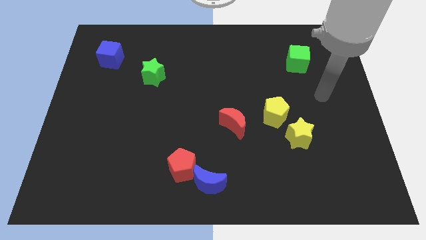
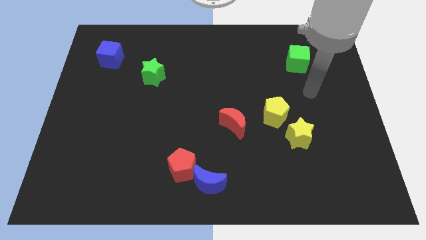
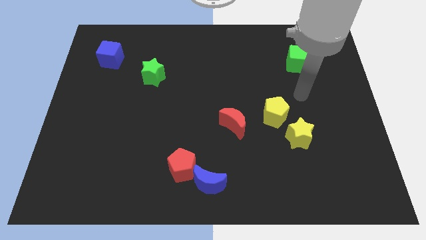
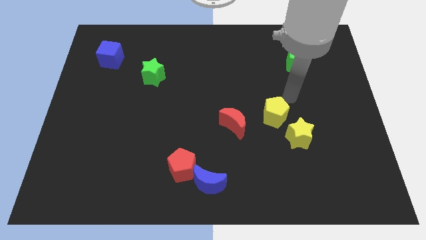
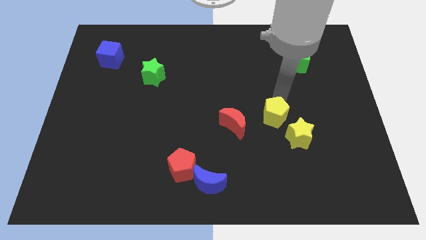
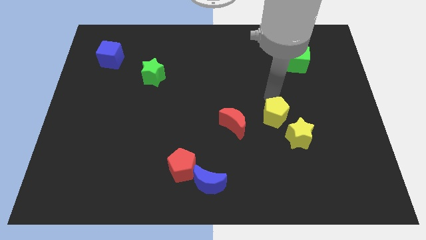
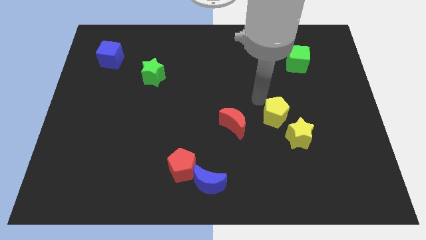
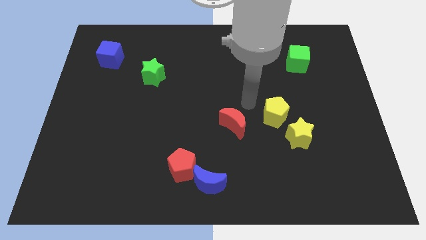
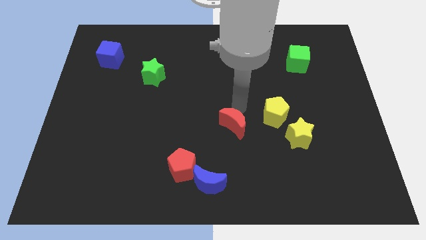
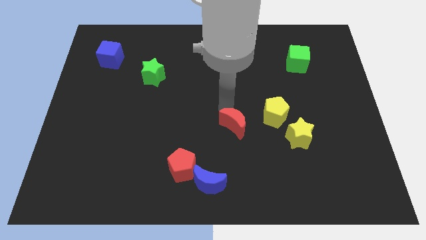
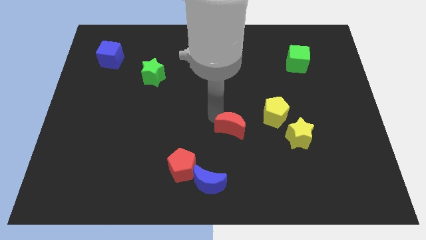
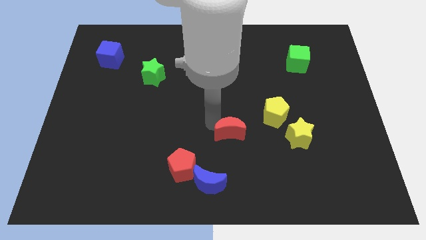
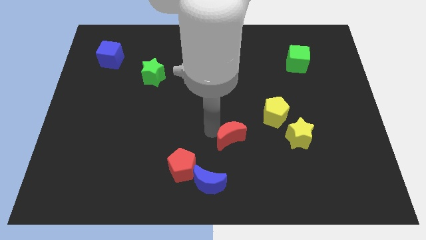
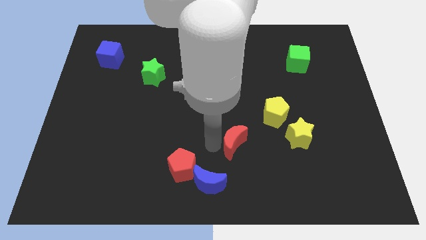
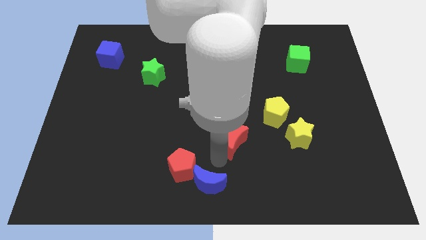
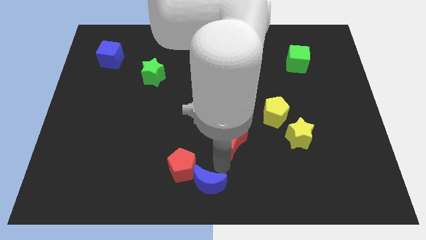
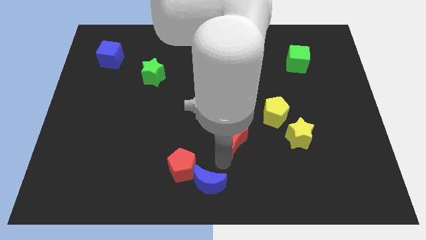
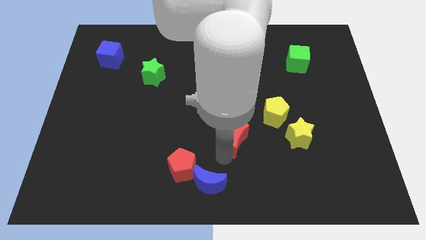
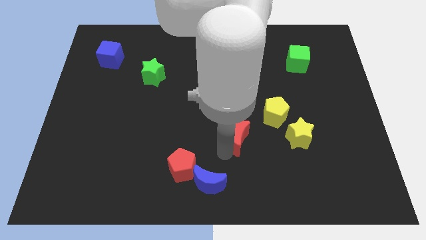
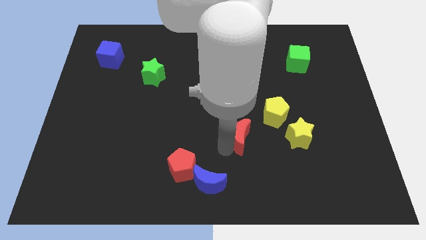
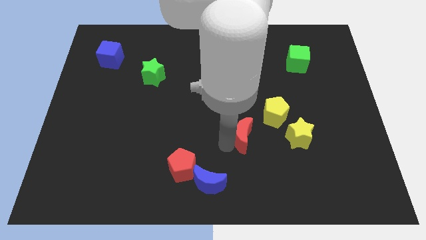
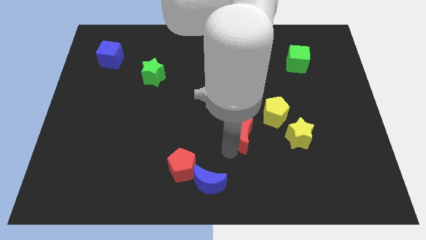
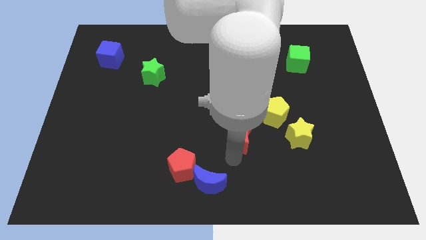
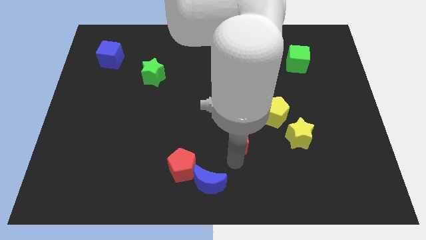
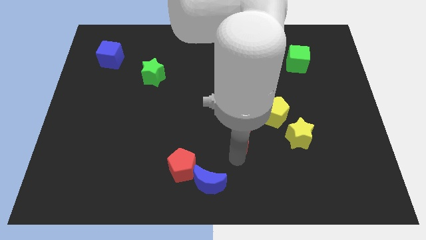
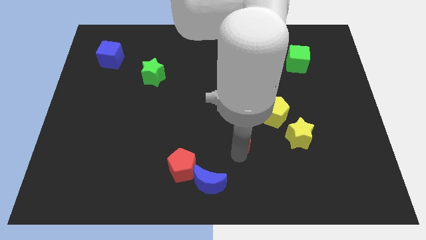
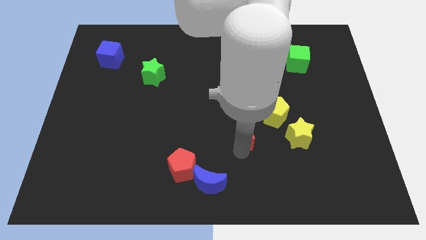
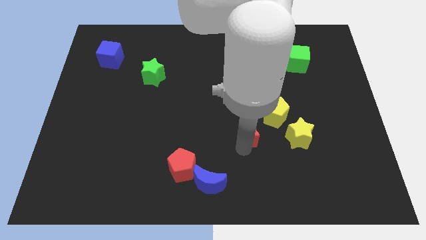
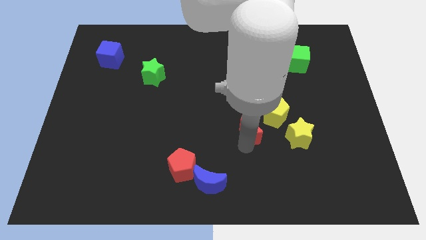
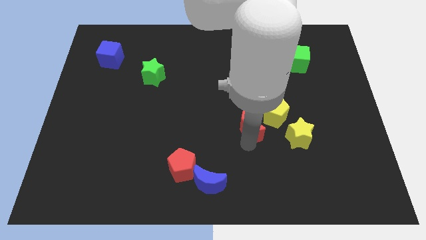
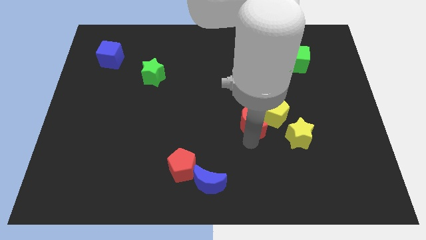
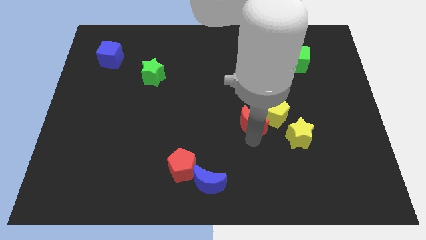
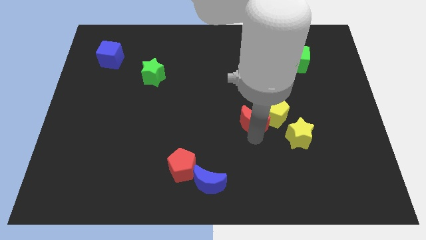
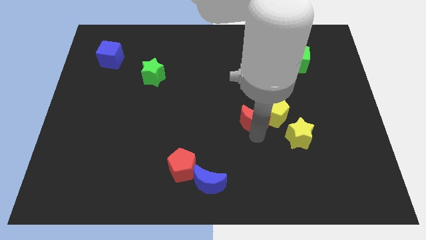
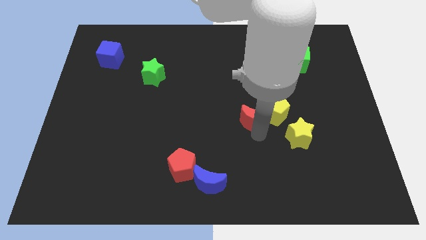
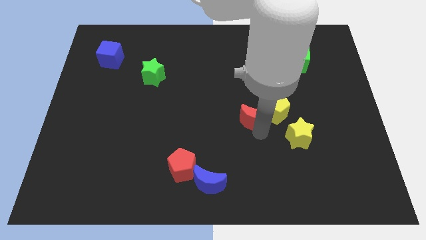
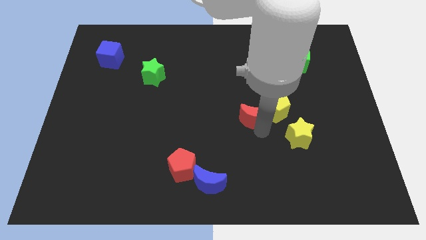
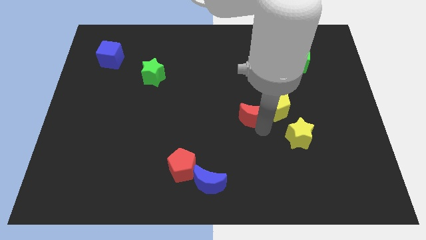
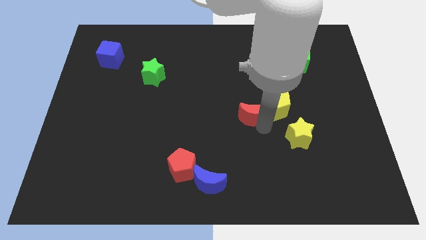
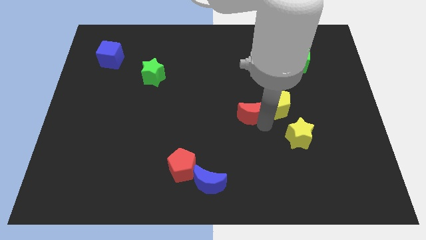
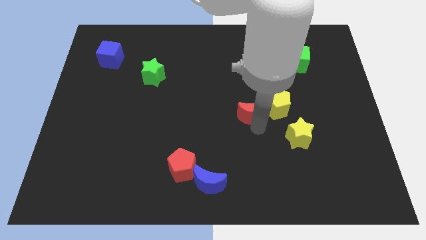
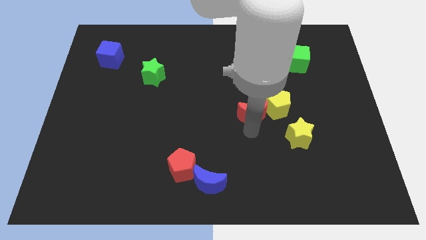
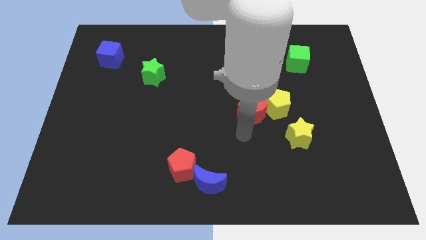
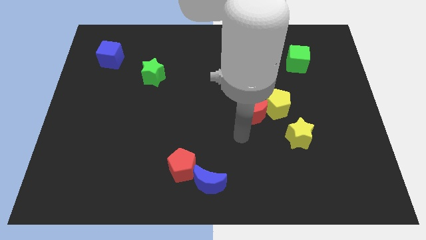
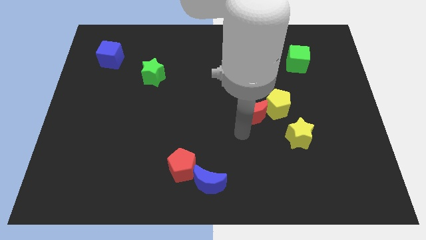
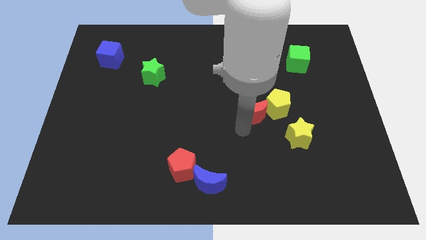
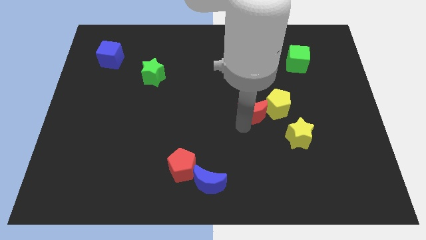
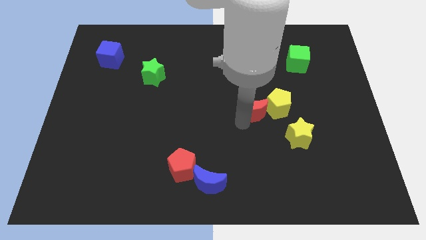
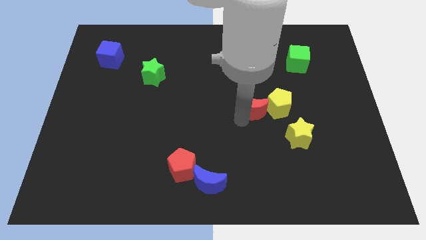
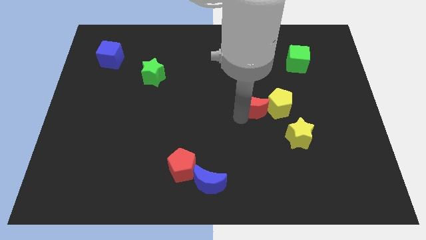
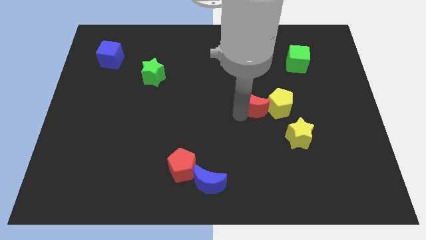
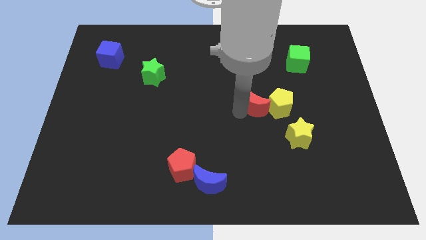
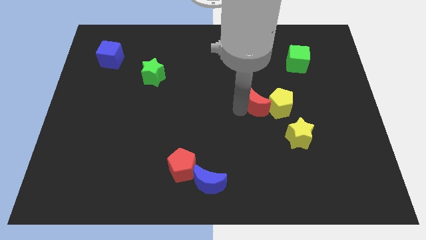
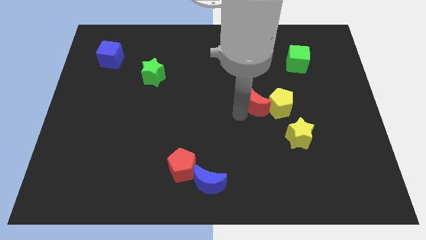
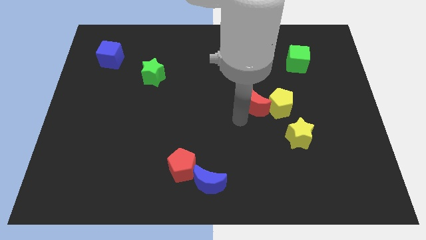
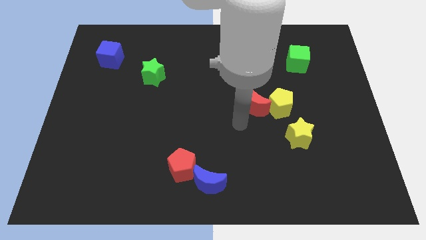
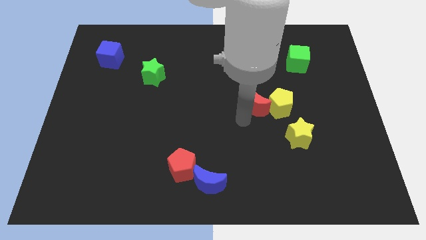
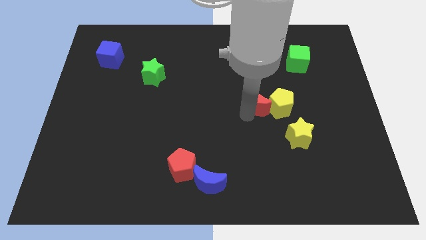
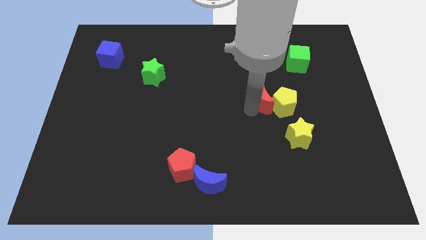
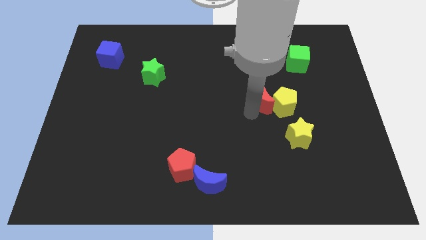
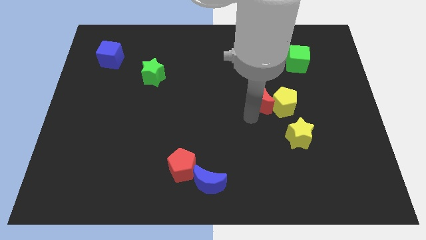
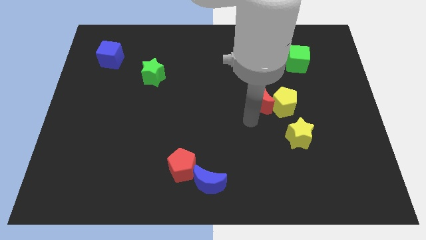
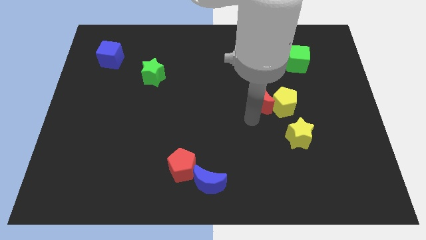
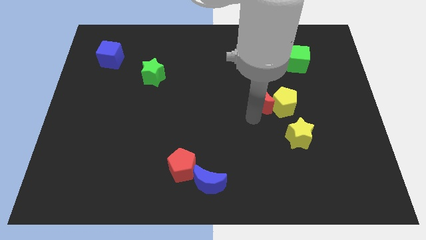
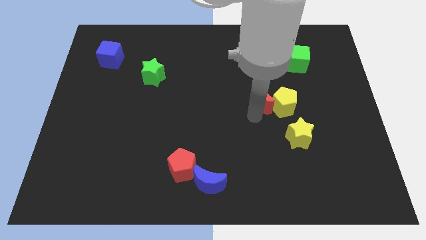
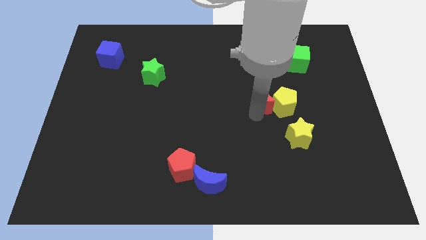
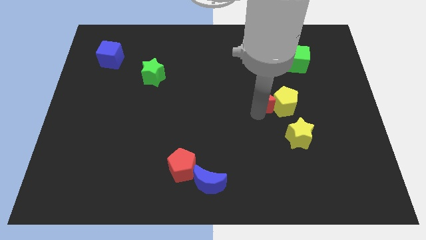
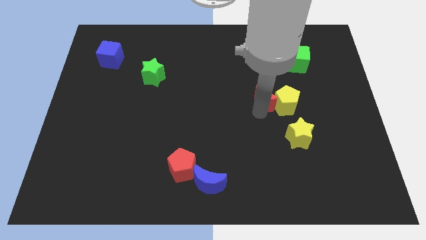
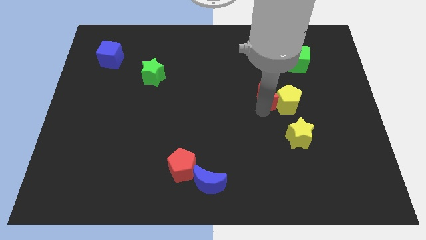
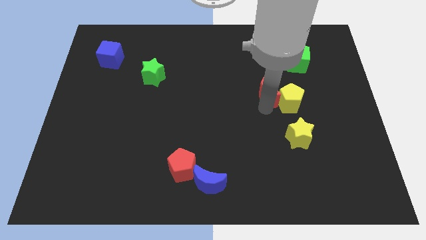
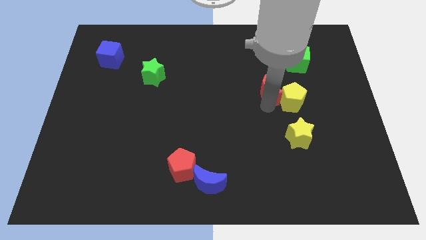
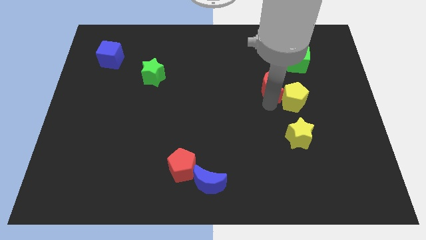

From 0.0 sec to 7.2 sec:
push the red moon to the bottom left of the green cube
